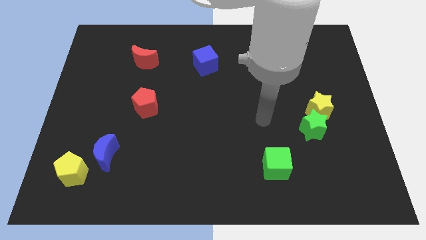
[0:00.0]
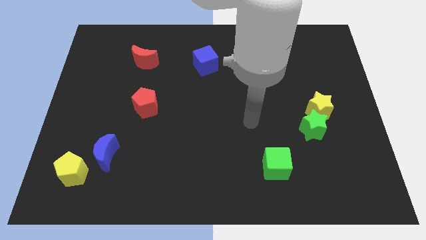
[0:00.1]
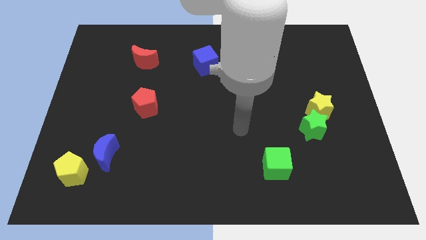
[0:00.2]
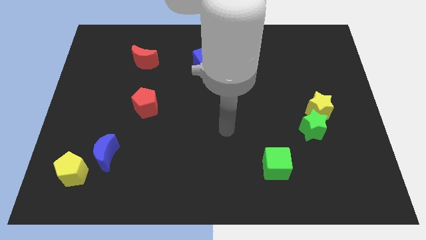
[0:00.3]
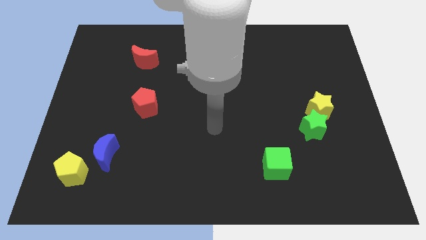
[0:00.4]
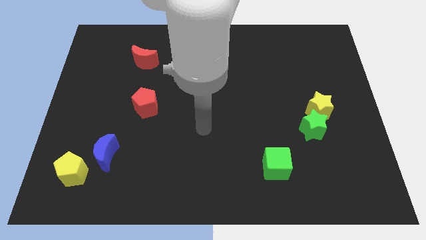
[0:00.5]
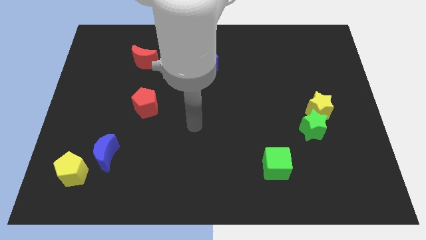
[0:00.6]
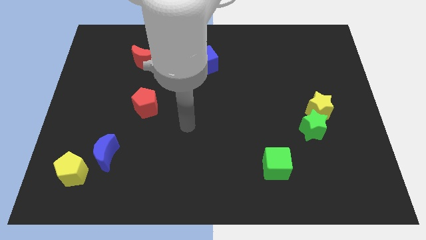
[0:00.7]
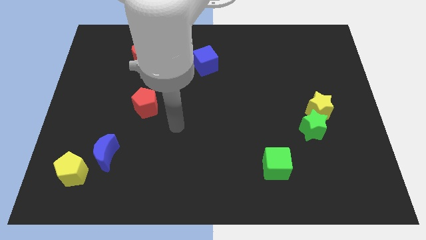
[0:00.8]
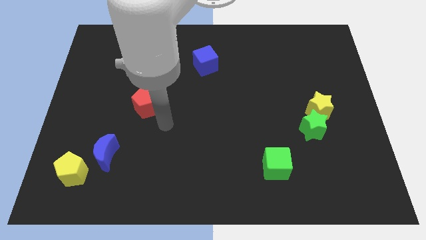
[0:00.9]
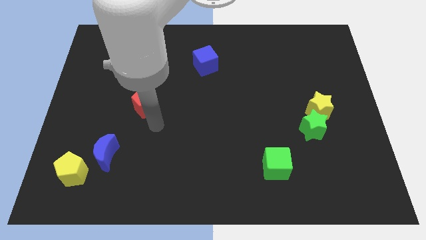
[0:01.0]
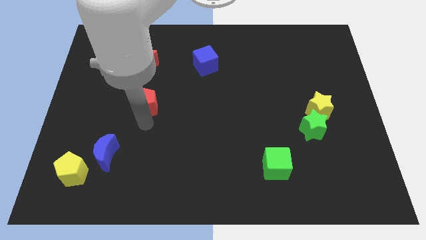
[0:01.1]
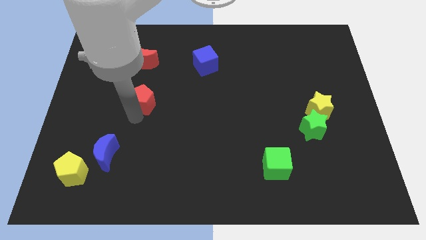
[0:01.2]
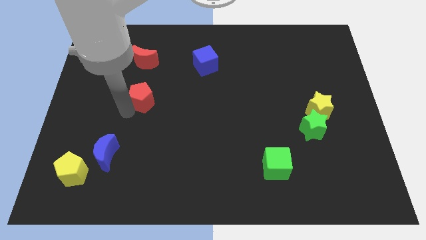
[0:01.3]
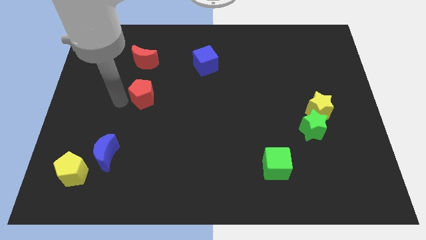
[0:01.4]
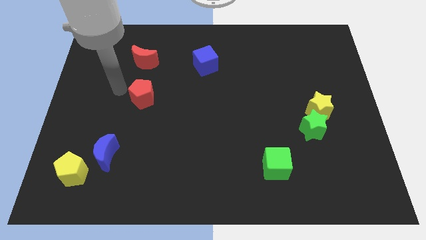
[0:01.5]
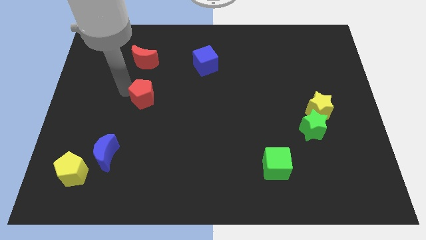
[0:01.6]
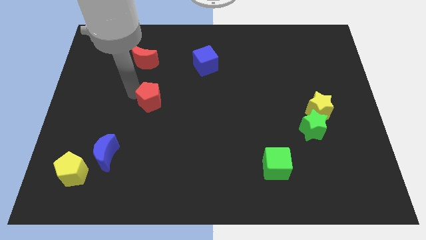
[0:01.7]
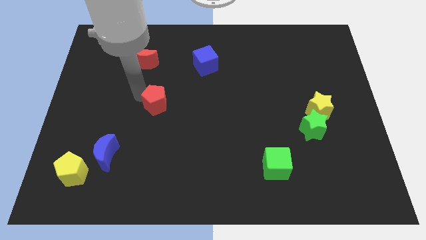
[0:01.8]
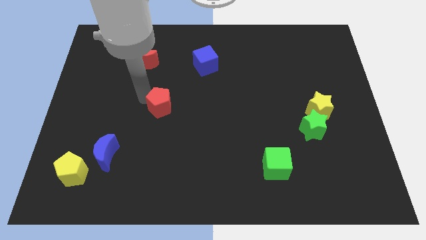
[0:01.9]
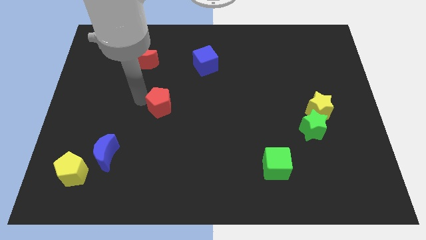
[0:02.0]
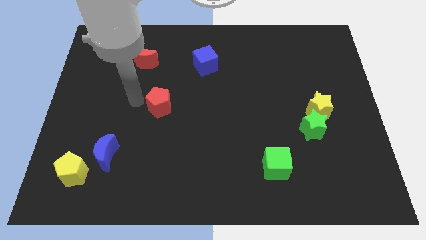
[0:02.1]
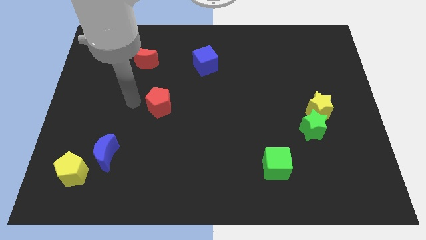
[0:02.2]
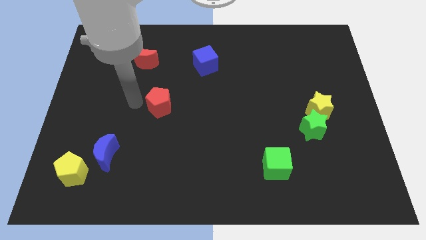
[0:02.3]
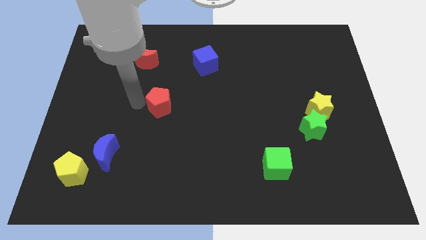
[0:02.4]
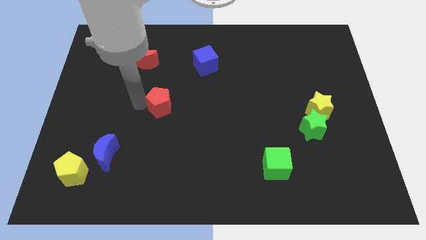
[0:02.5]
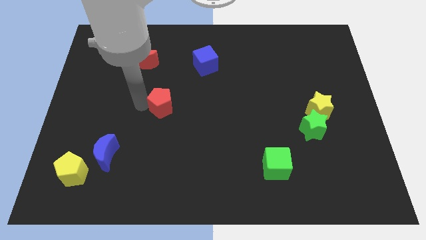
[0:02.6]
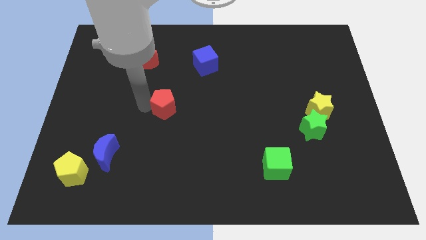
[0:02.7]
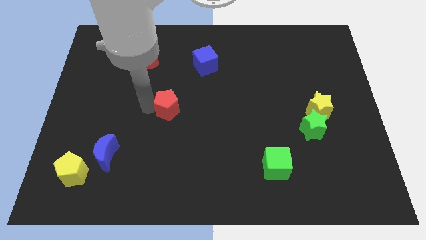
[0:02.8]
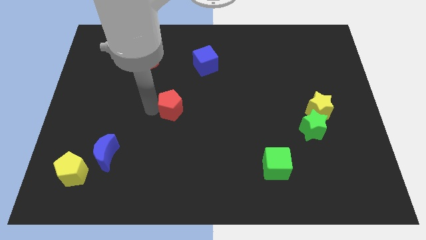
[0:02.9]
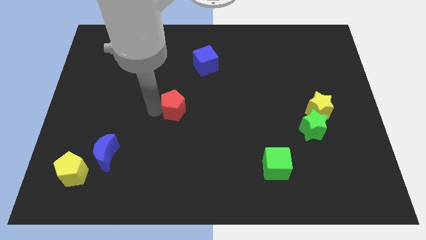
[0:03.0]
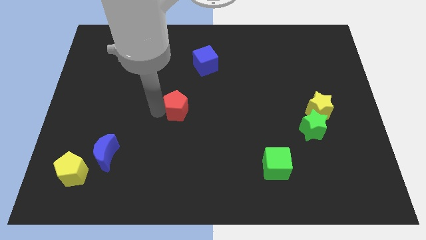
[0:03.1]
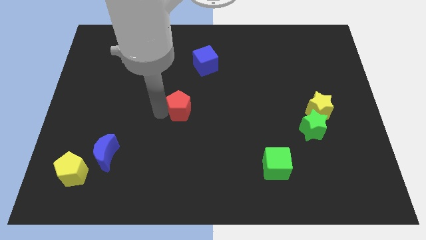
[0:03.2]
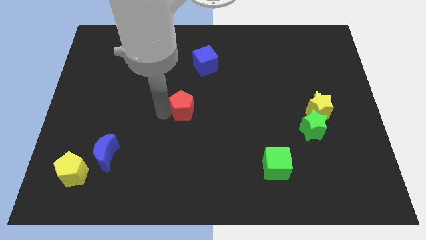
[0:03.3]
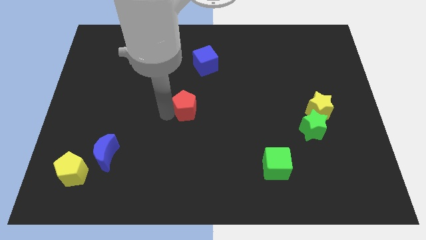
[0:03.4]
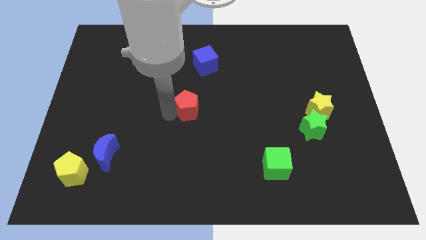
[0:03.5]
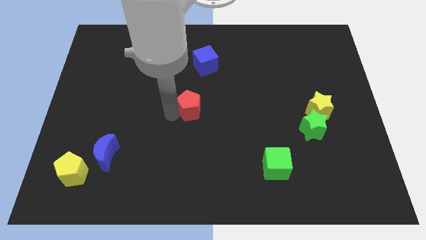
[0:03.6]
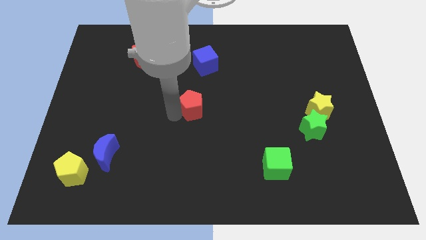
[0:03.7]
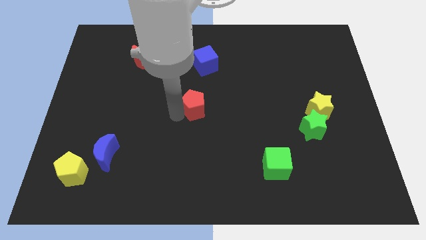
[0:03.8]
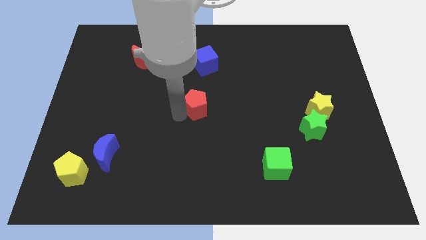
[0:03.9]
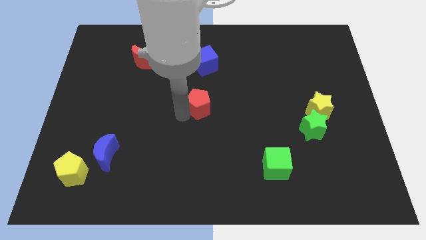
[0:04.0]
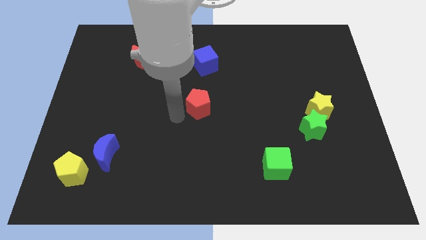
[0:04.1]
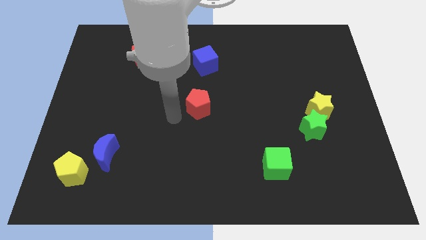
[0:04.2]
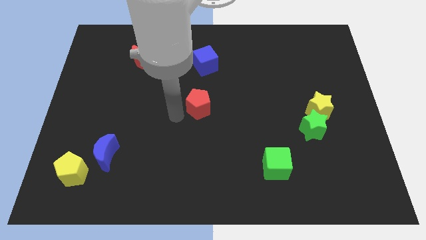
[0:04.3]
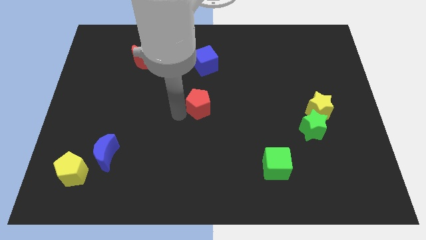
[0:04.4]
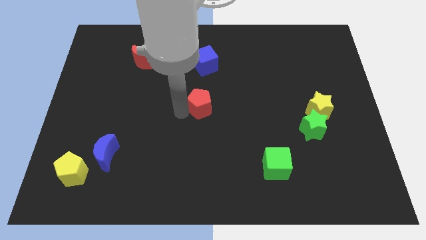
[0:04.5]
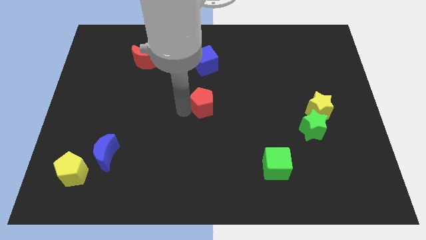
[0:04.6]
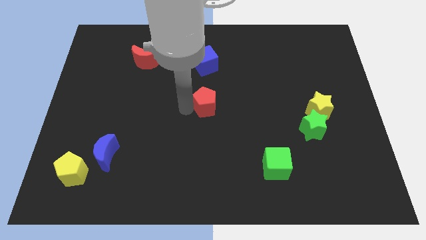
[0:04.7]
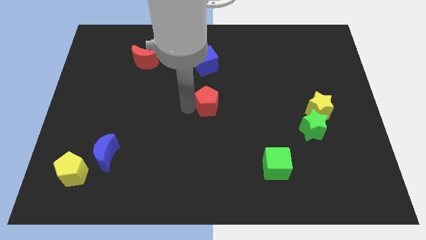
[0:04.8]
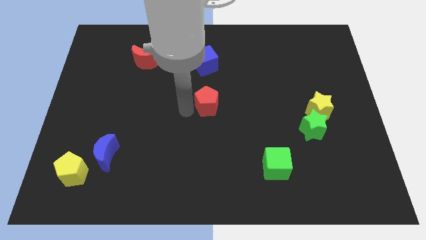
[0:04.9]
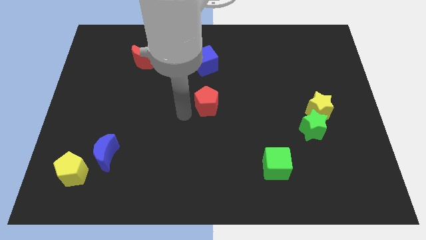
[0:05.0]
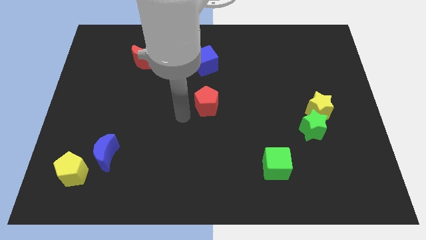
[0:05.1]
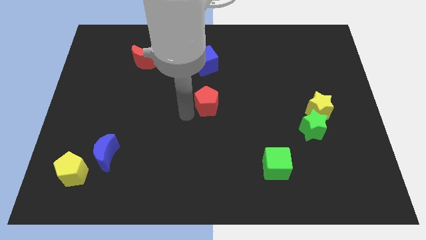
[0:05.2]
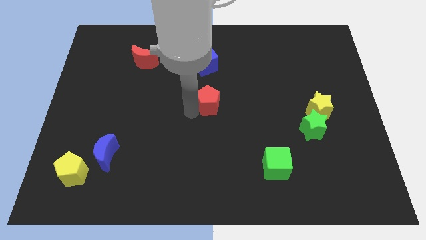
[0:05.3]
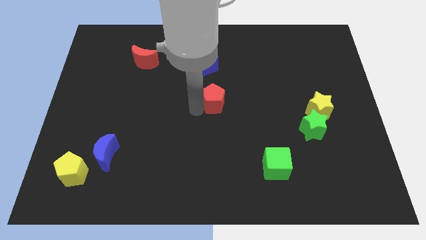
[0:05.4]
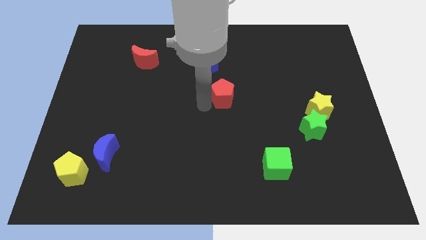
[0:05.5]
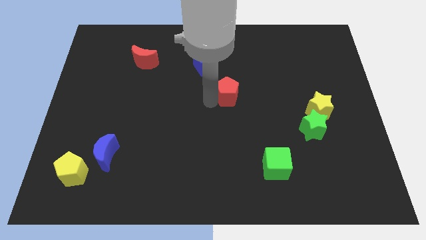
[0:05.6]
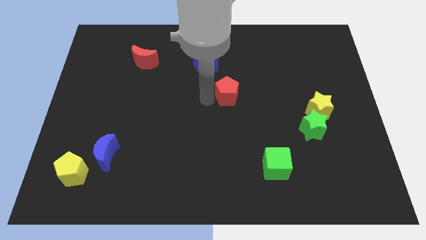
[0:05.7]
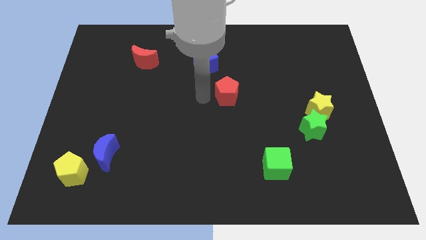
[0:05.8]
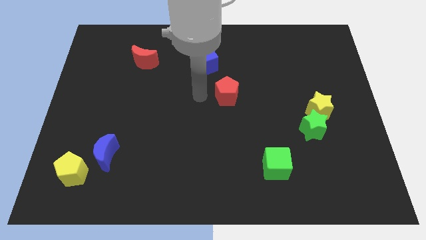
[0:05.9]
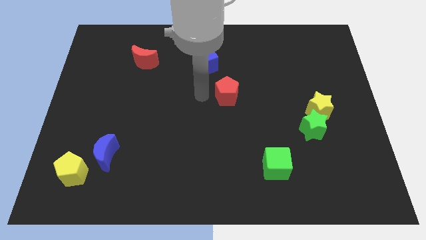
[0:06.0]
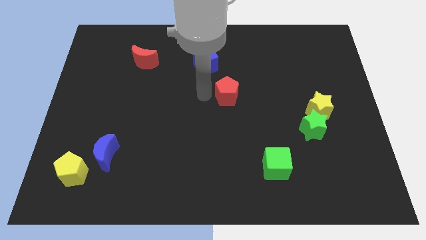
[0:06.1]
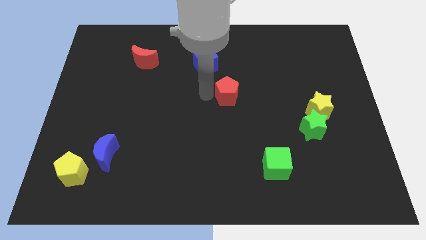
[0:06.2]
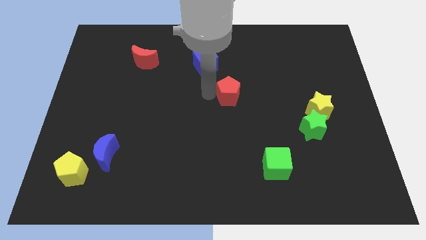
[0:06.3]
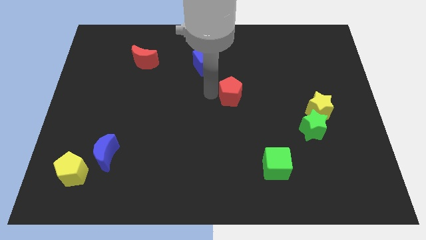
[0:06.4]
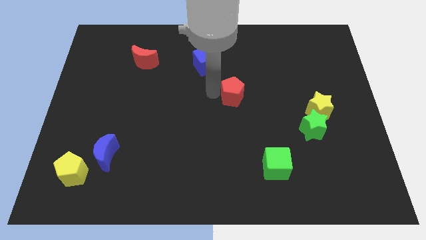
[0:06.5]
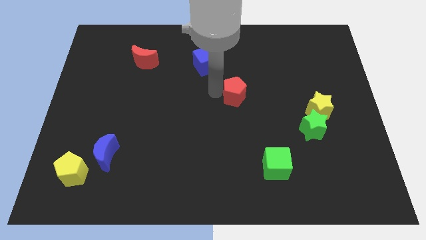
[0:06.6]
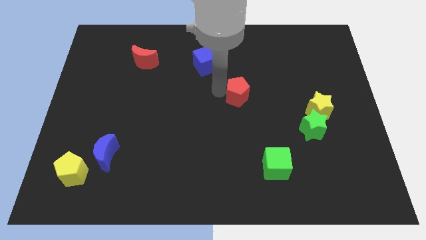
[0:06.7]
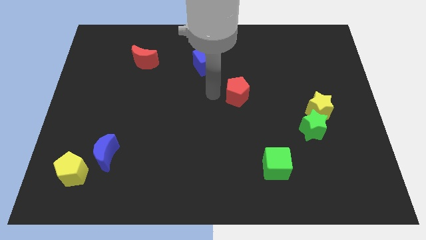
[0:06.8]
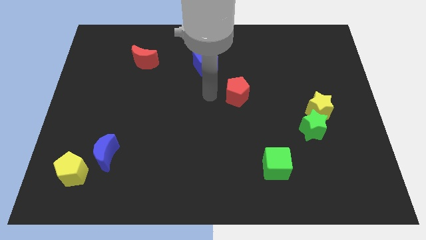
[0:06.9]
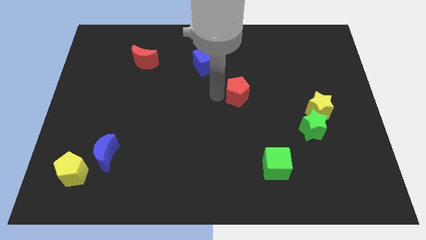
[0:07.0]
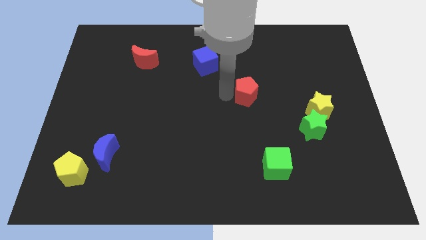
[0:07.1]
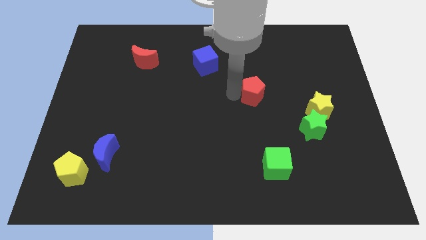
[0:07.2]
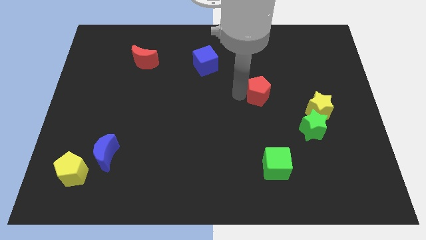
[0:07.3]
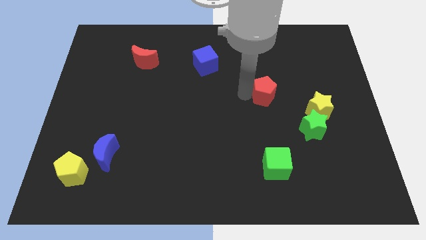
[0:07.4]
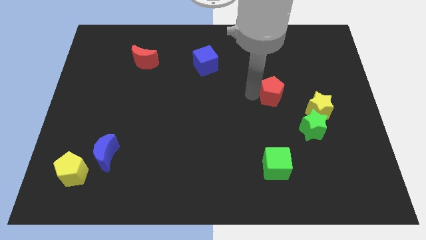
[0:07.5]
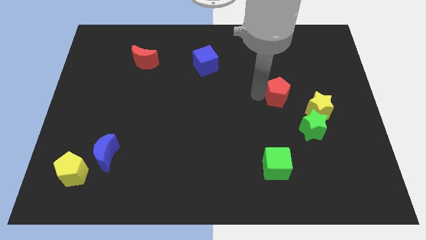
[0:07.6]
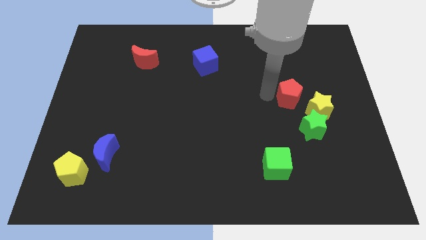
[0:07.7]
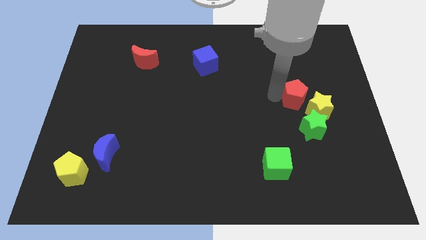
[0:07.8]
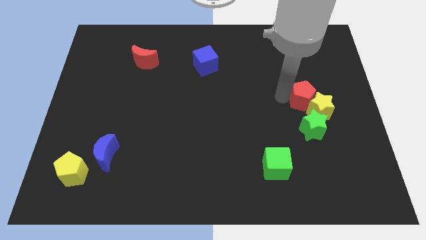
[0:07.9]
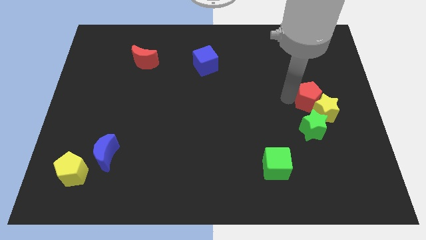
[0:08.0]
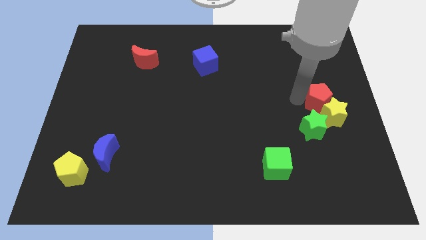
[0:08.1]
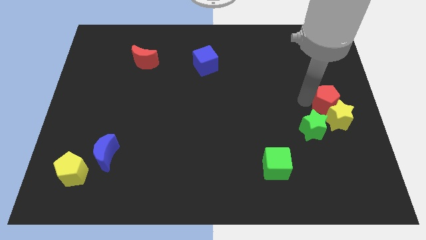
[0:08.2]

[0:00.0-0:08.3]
move the red pentagon to the right side
